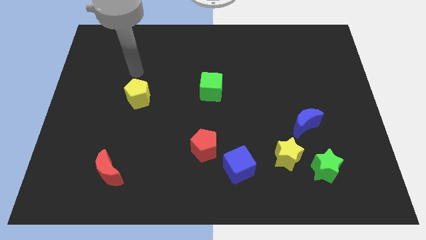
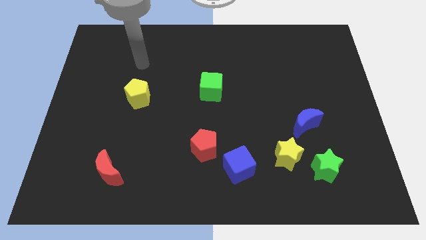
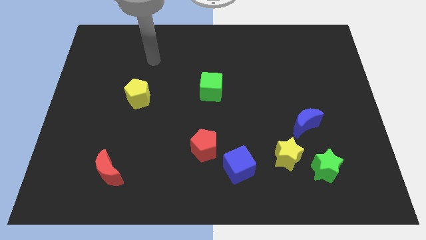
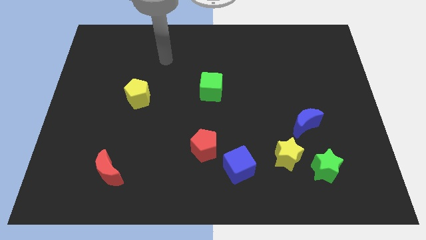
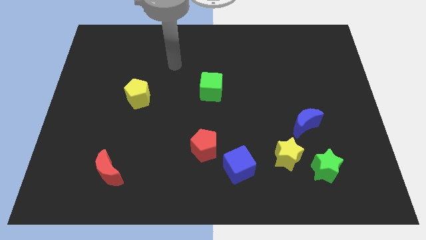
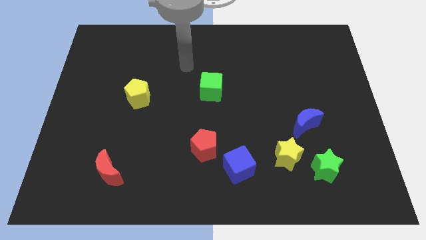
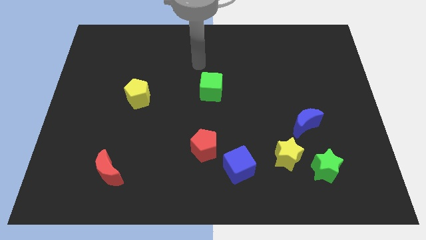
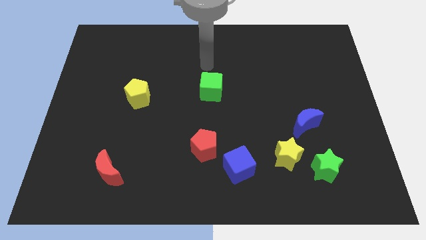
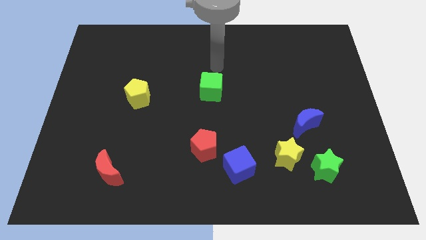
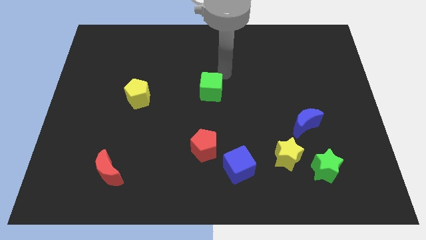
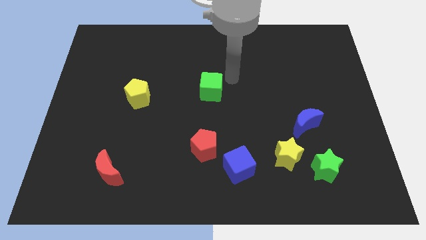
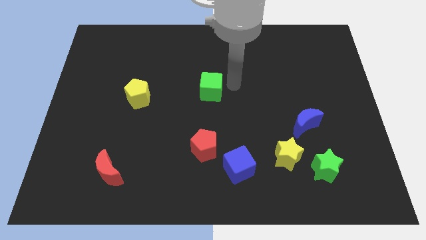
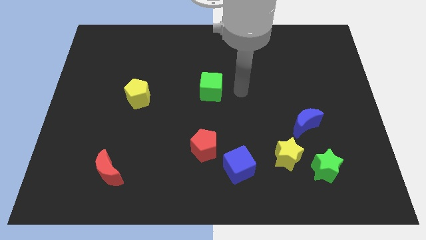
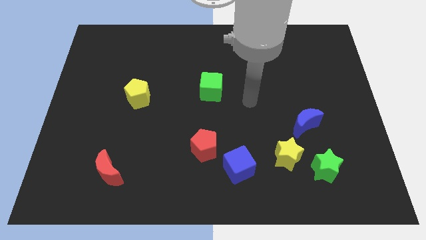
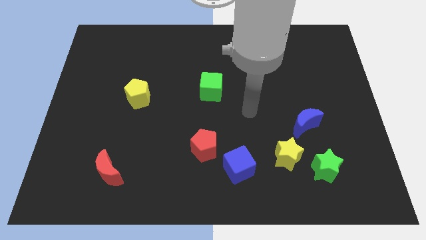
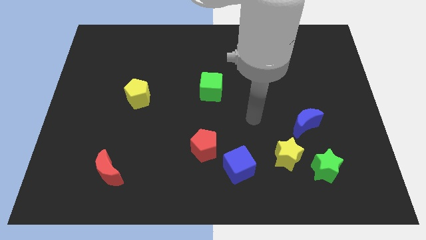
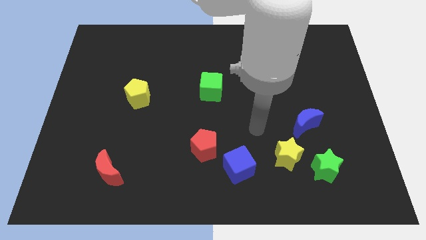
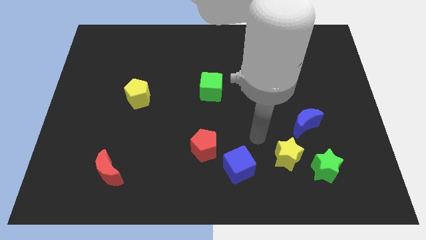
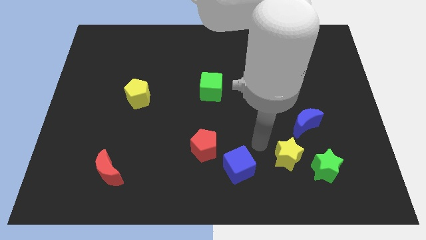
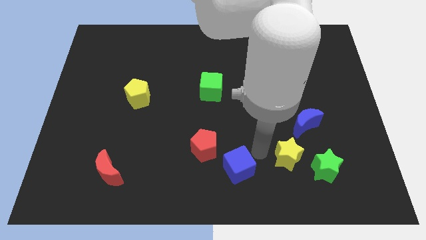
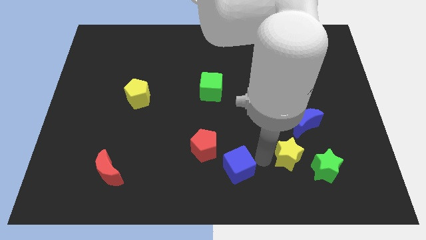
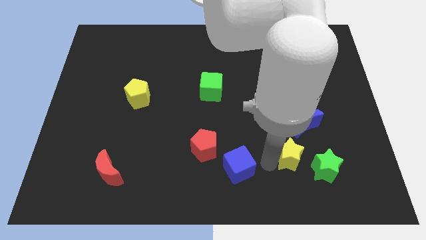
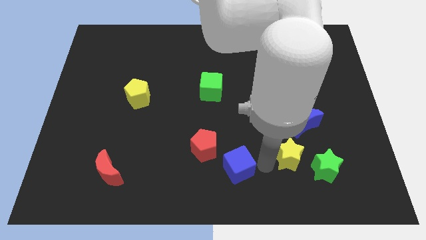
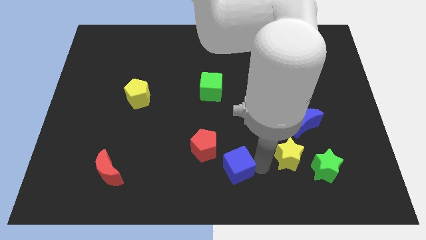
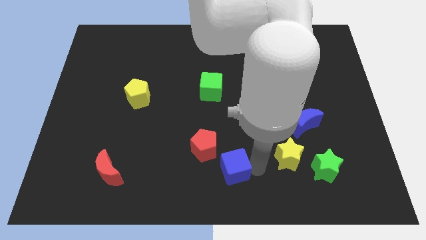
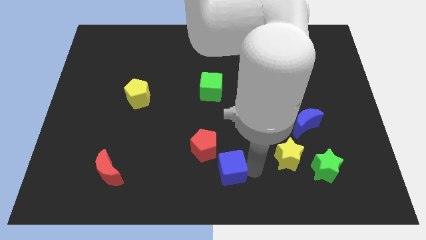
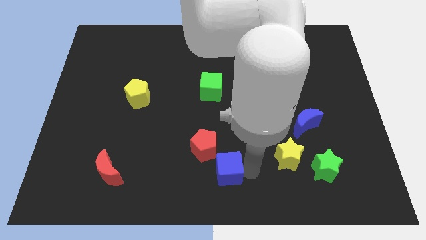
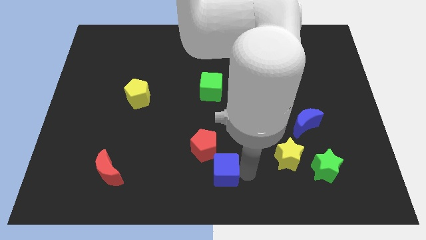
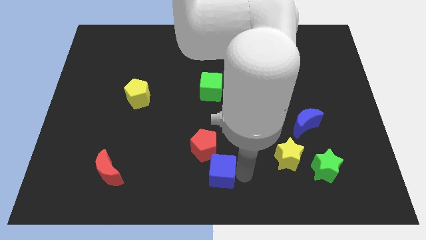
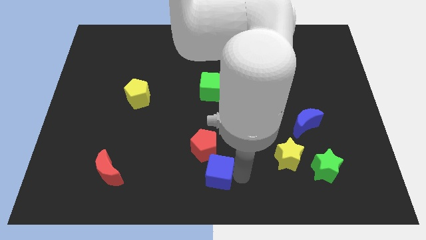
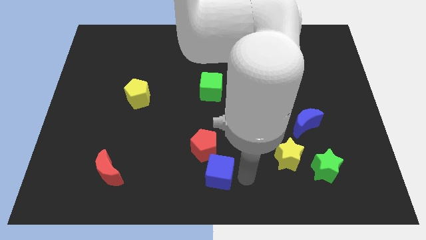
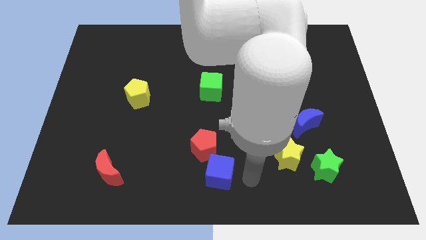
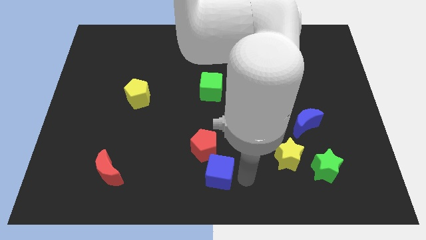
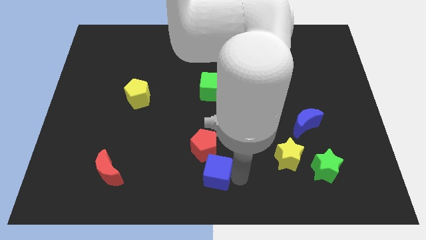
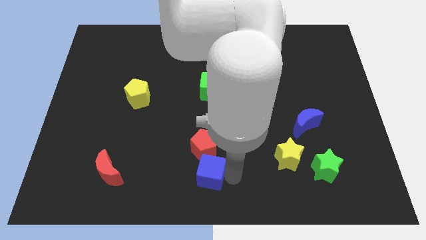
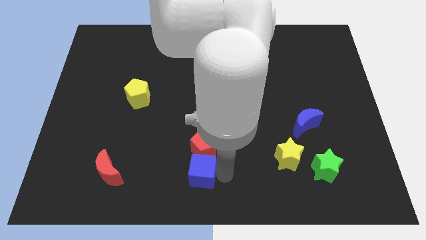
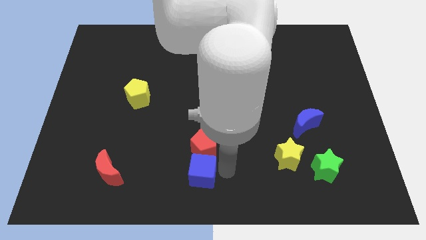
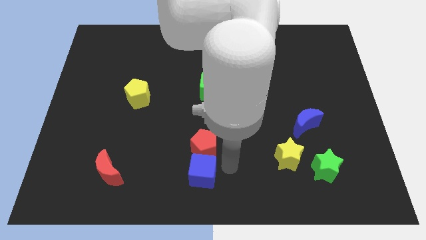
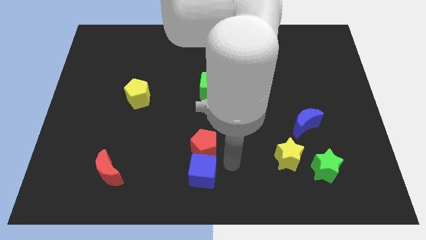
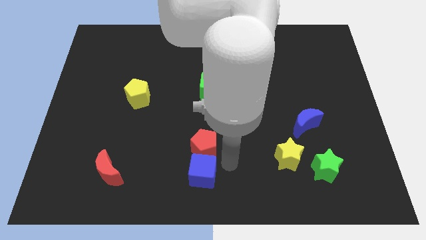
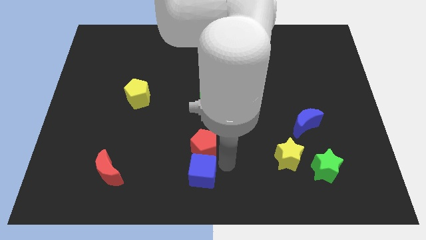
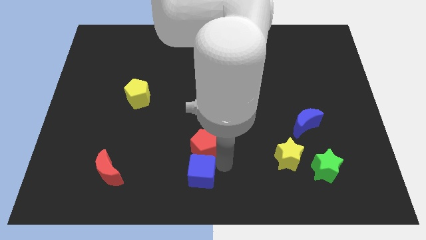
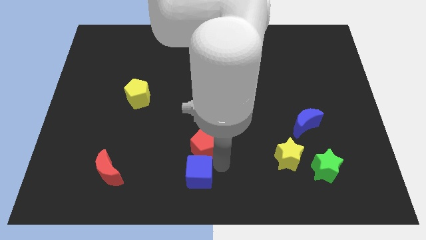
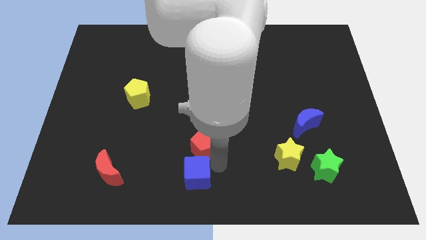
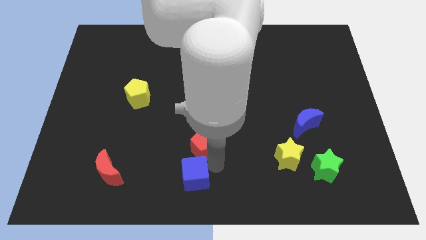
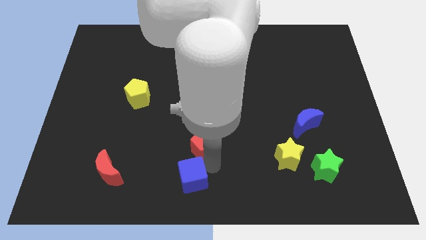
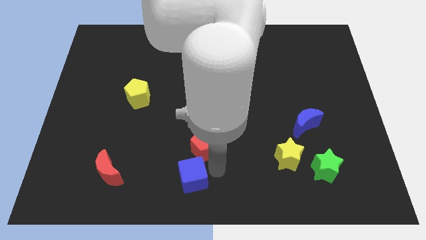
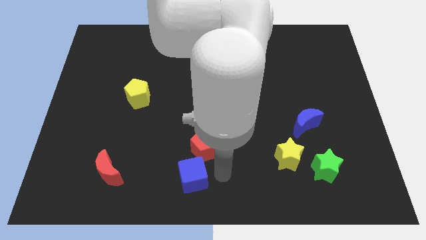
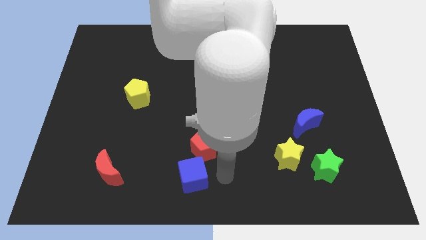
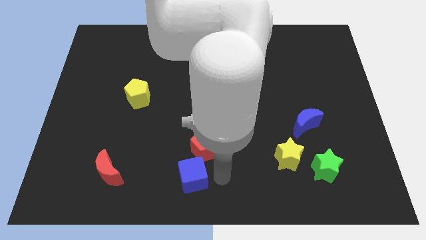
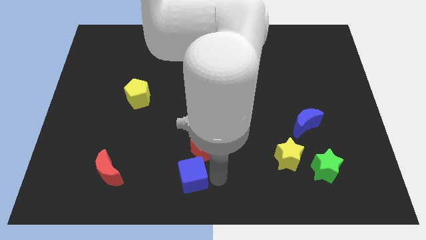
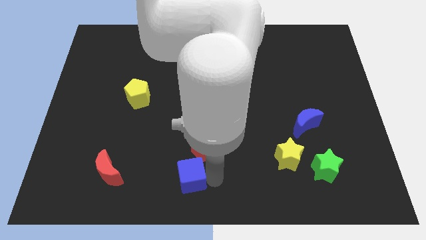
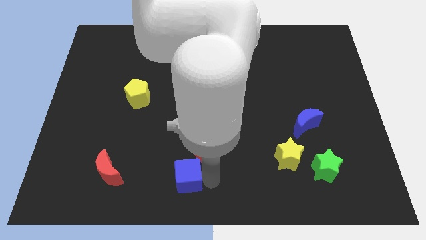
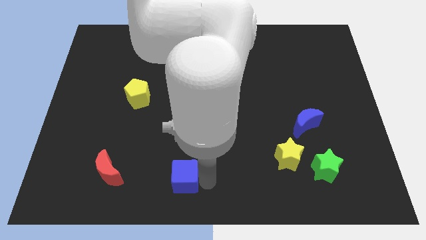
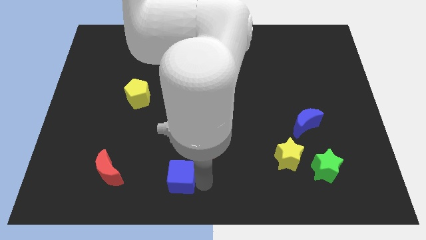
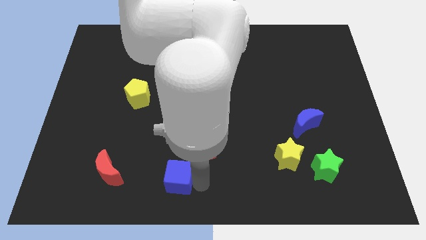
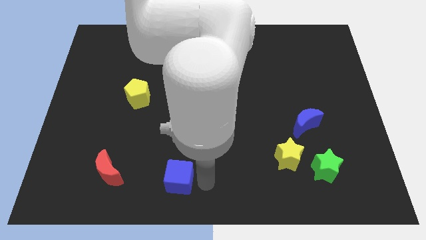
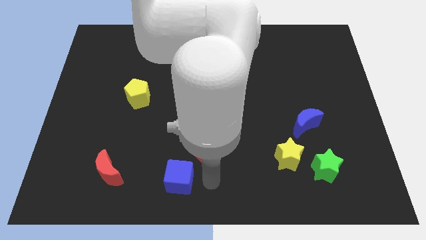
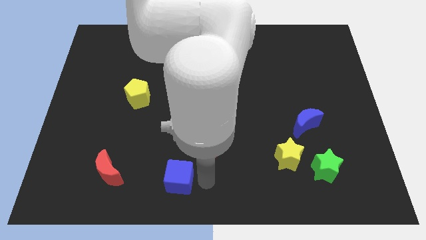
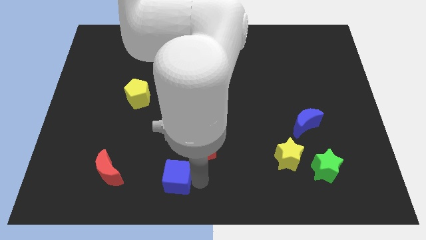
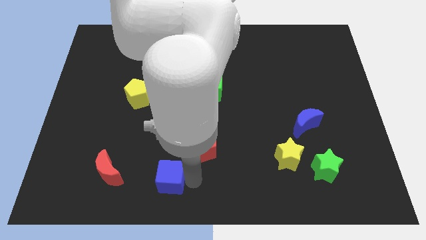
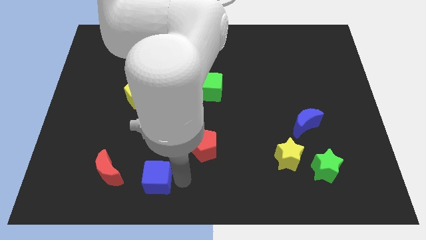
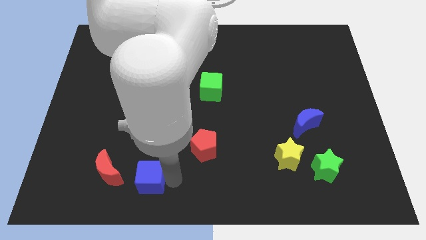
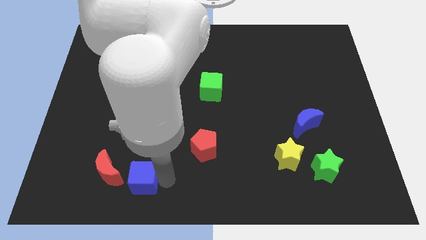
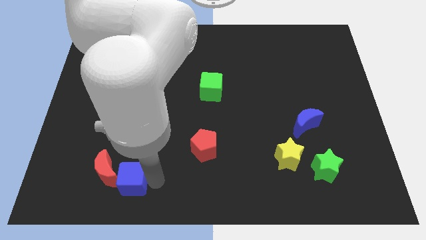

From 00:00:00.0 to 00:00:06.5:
slide the blue cube close to the red moon
